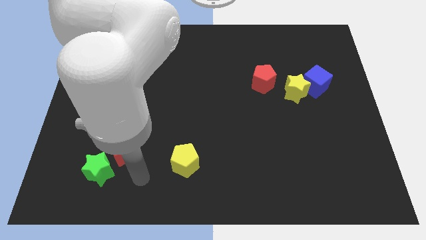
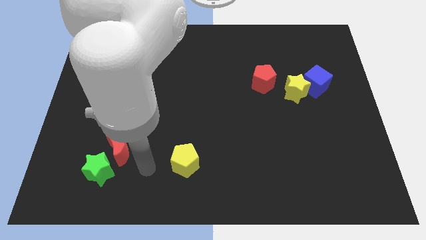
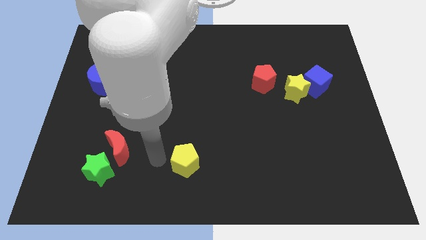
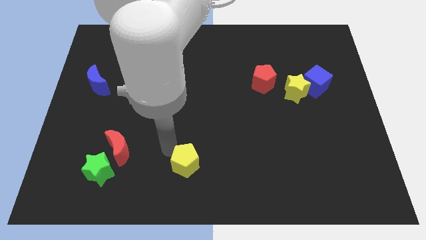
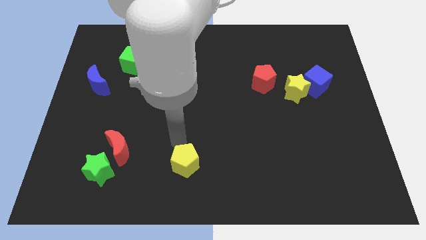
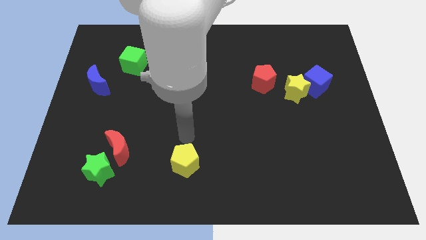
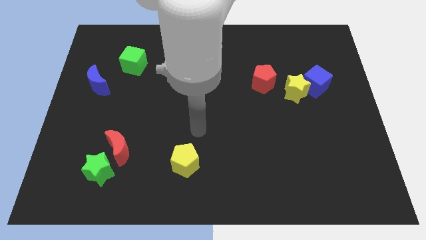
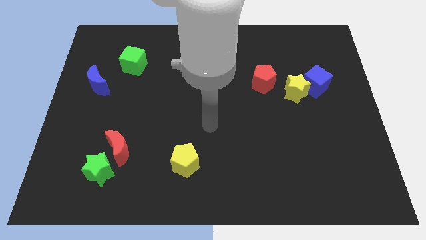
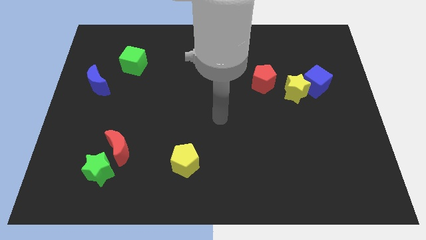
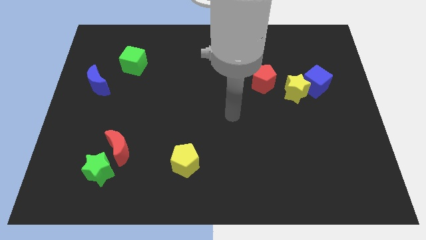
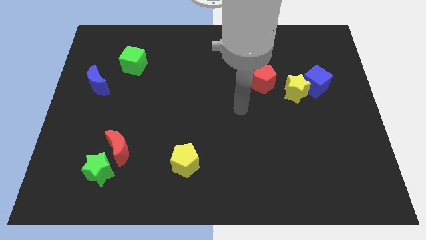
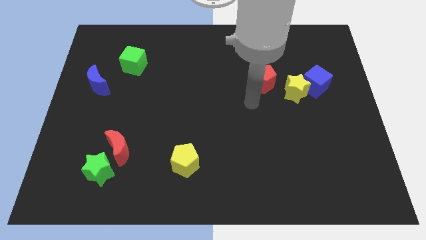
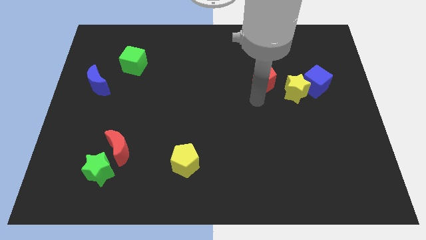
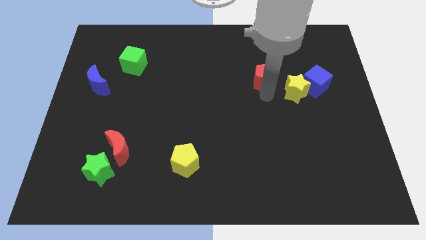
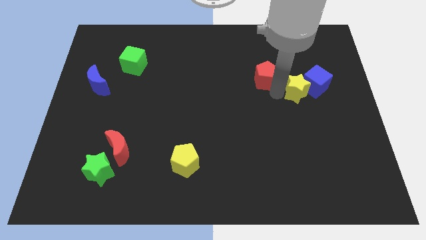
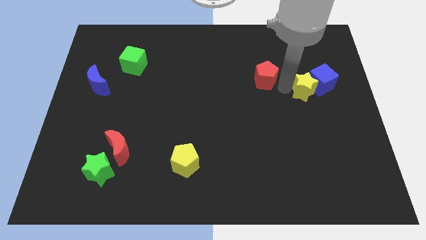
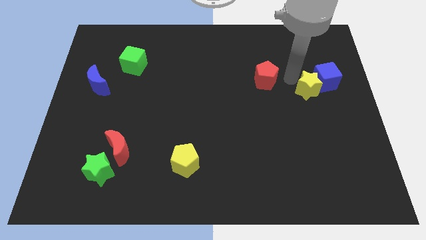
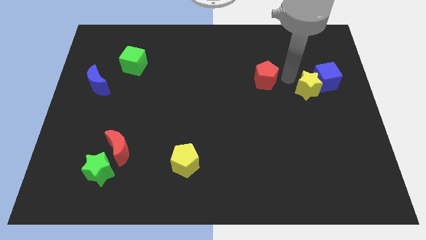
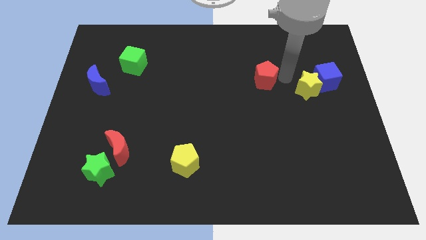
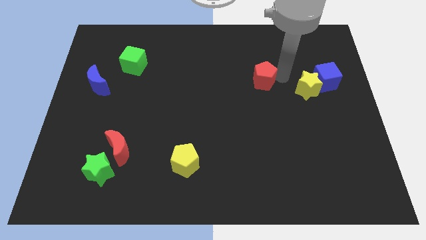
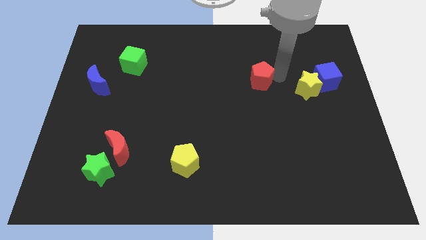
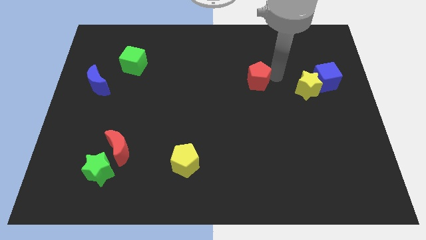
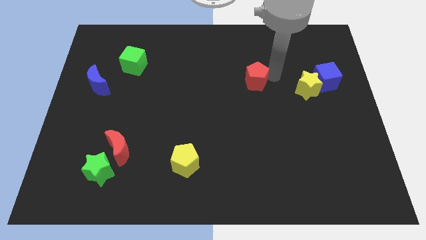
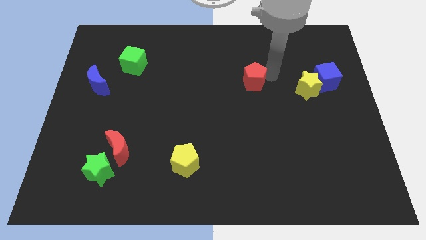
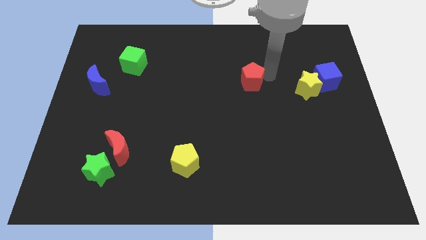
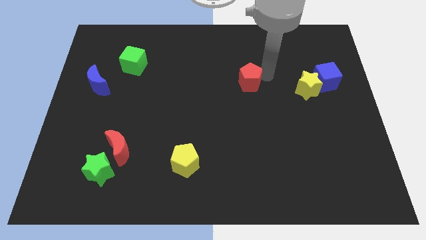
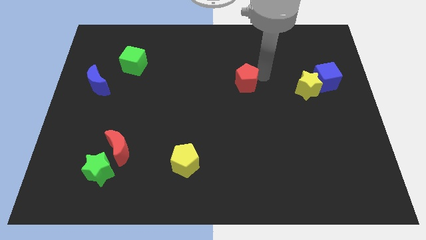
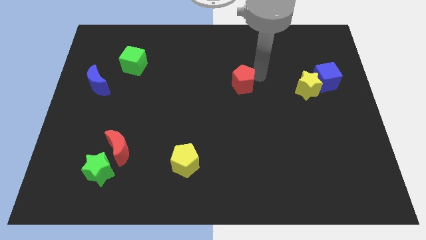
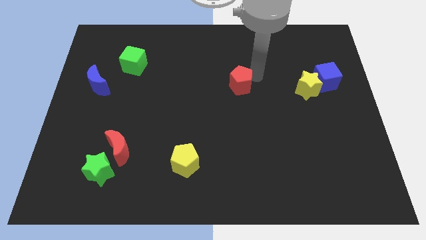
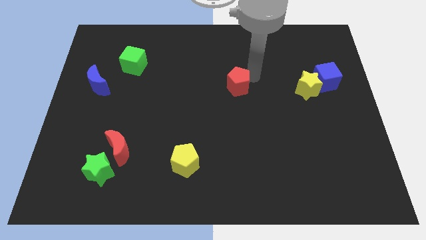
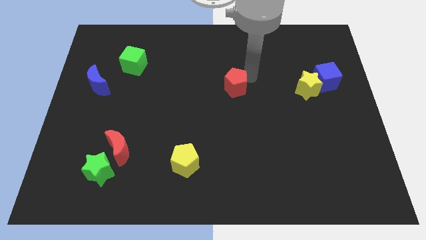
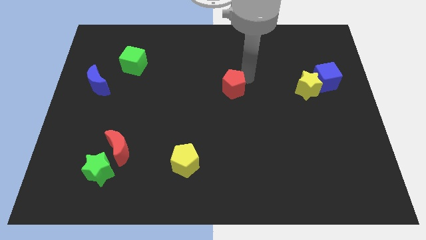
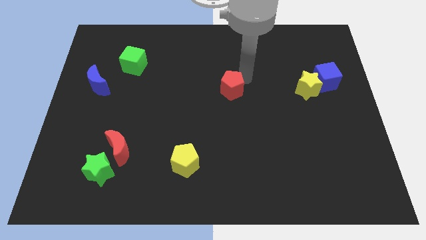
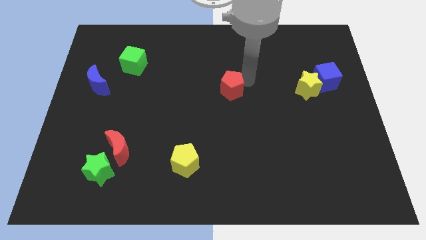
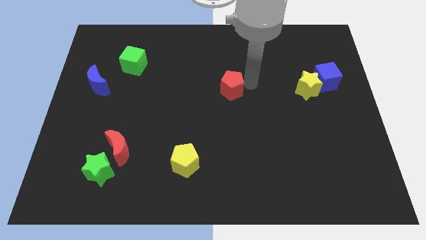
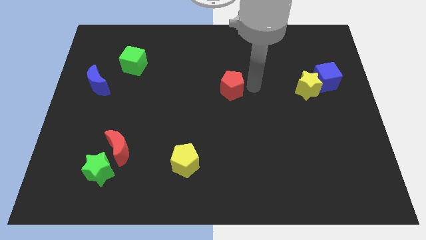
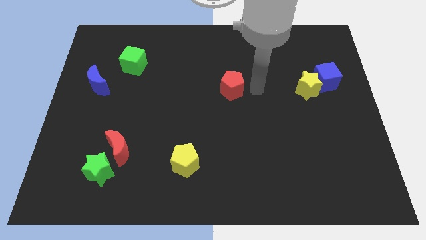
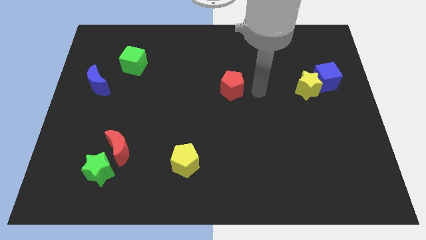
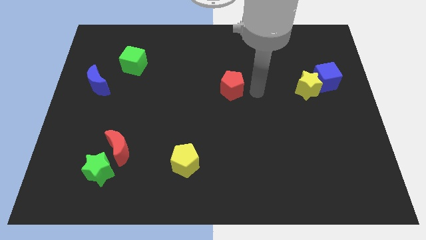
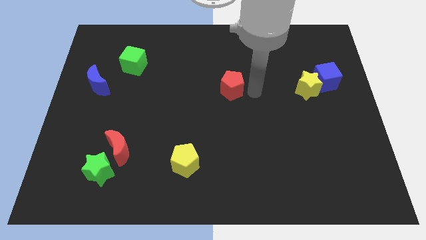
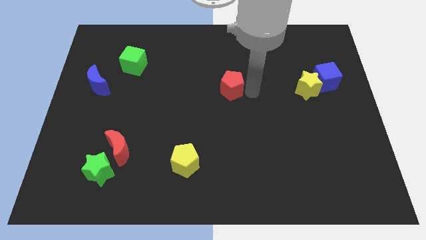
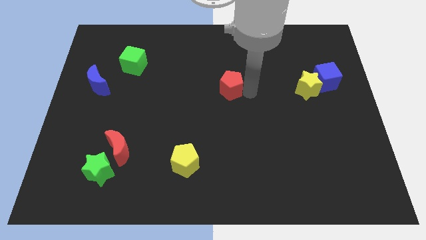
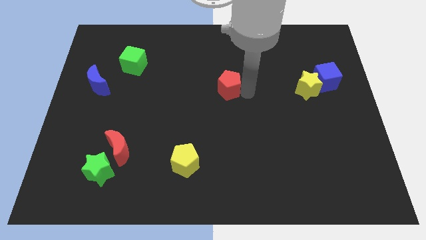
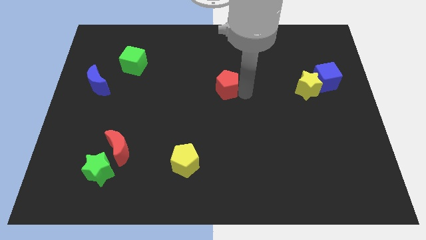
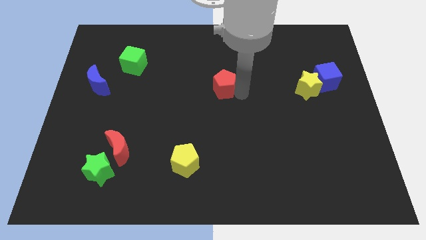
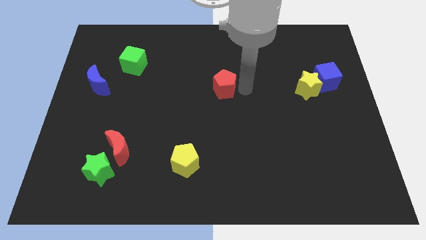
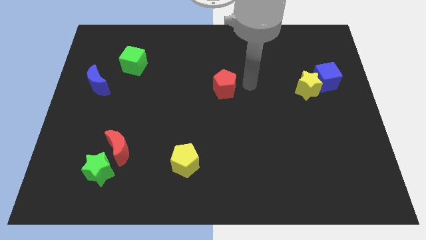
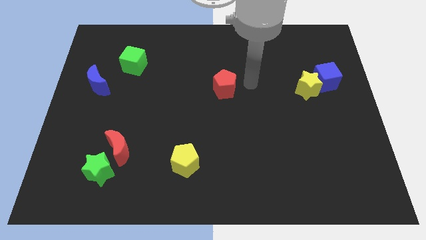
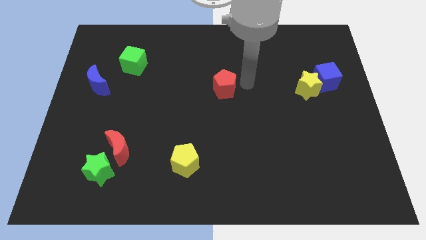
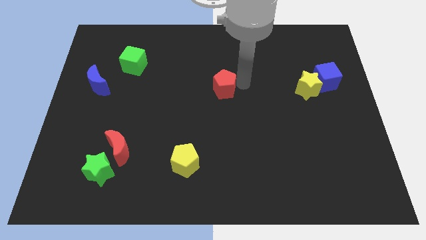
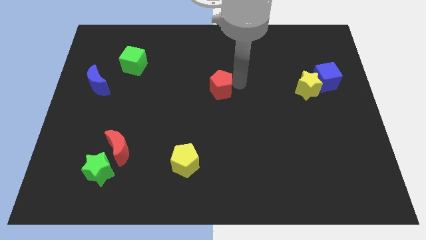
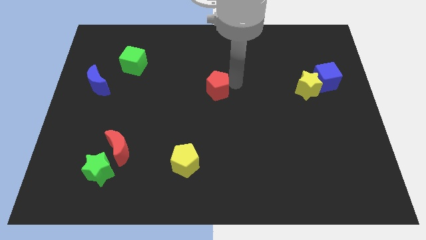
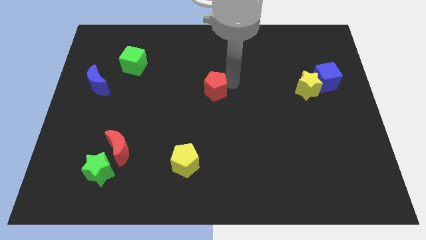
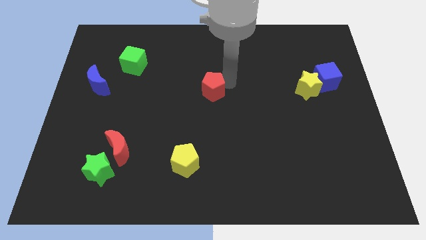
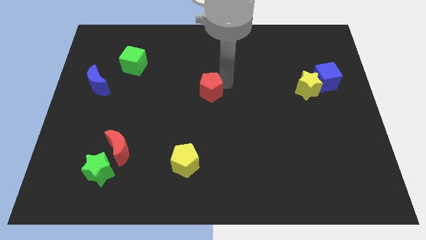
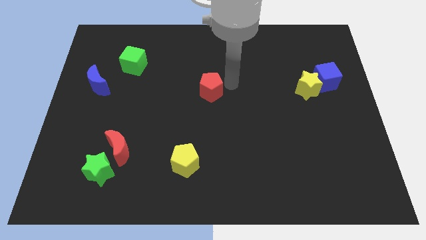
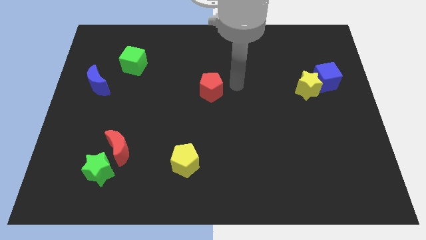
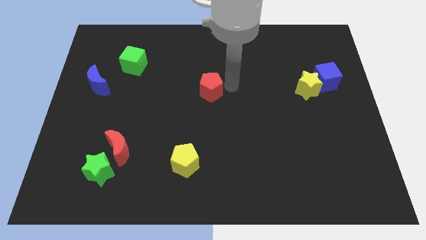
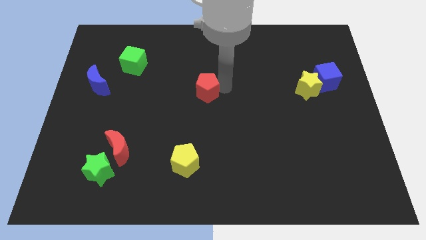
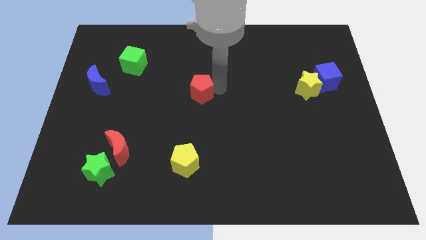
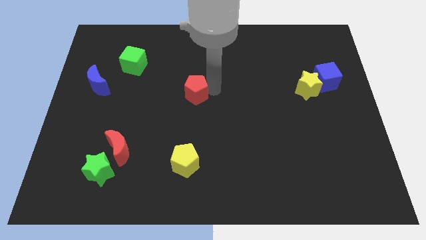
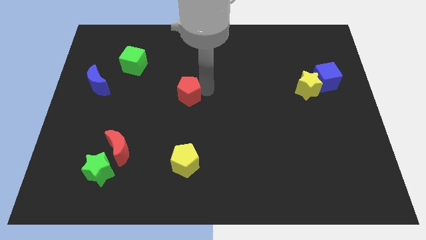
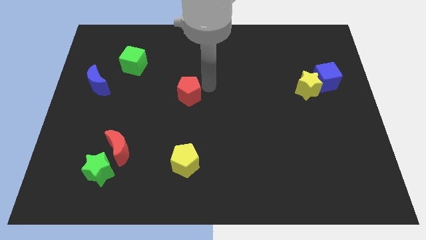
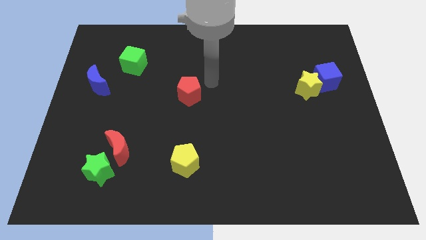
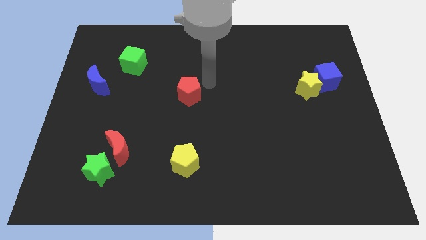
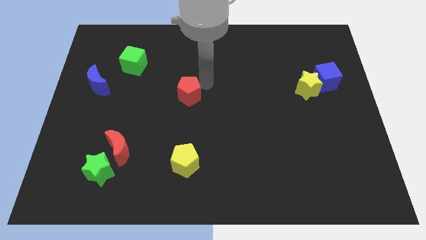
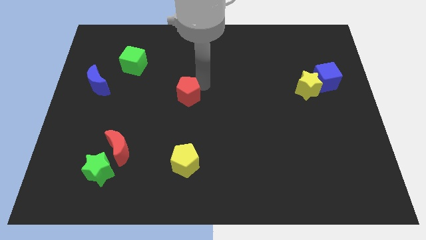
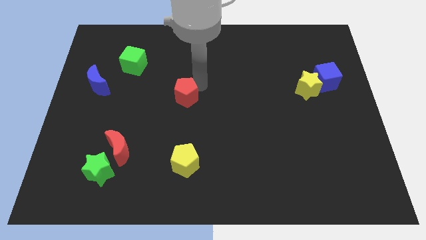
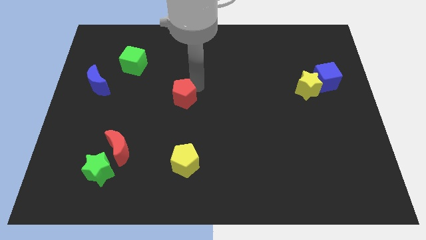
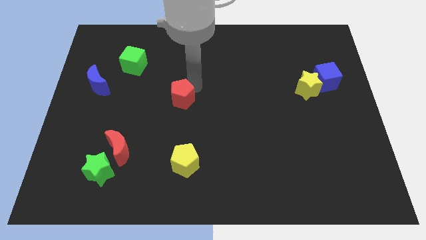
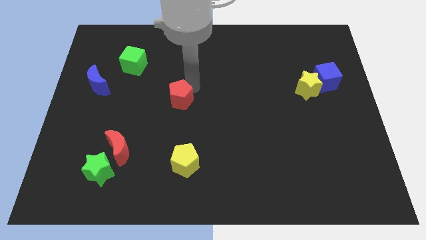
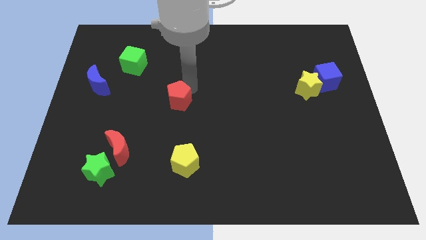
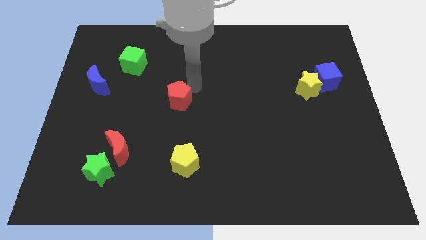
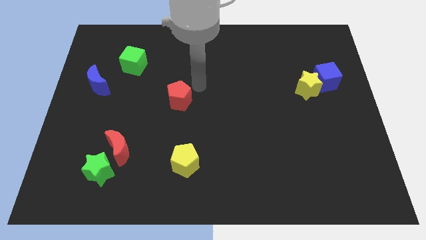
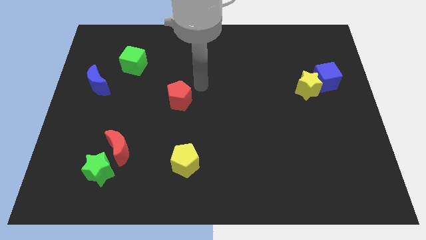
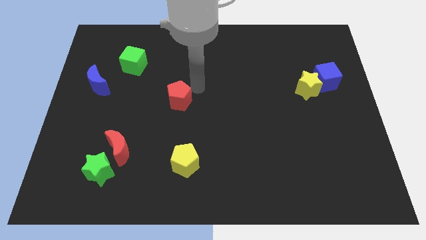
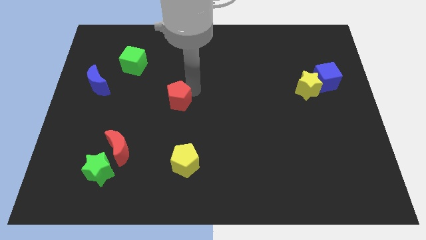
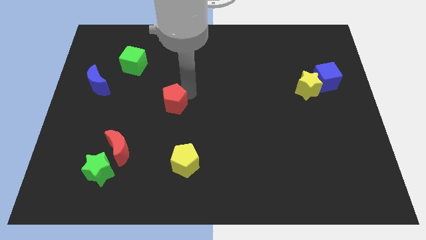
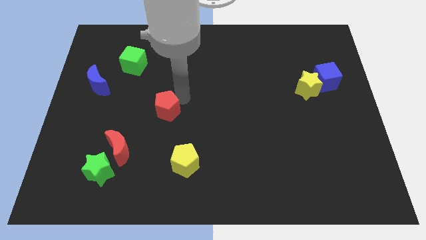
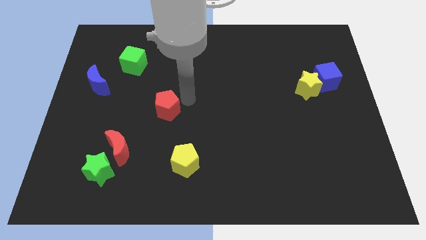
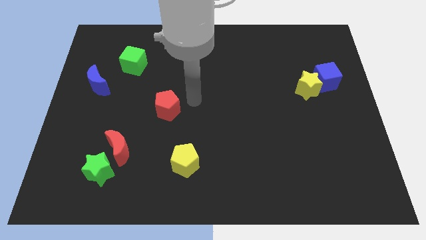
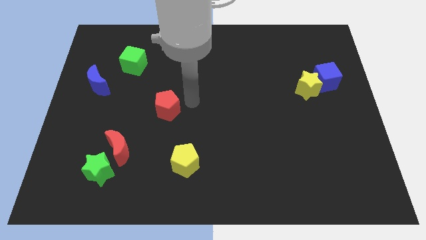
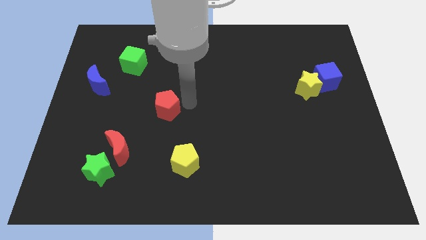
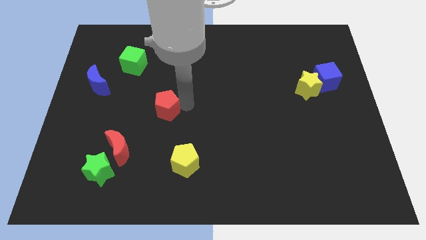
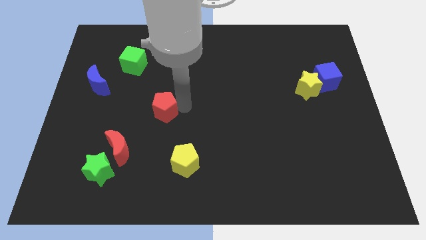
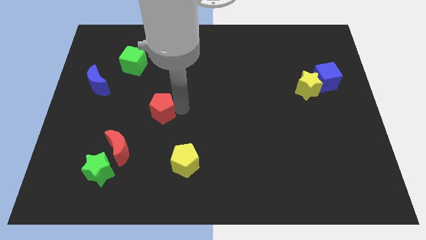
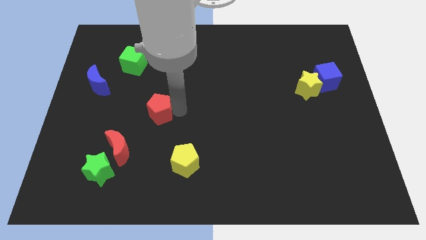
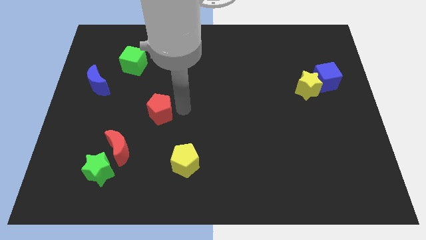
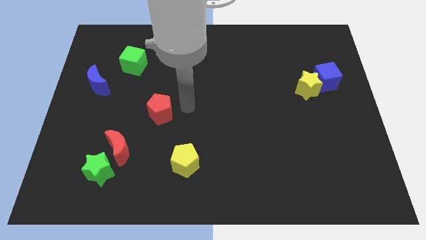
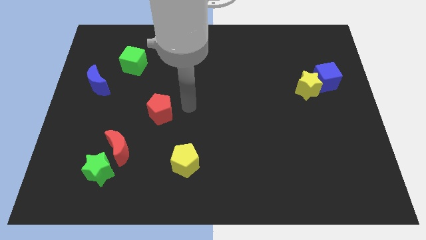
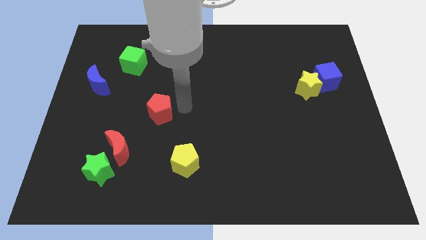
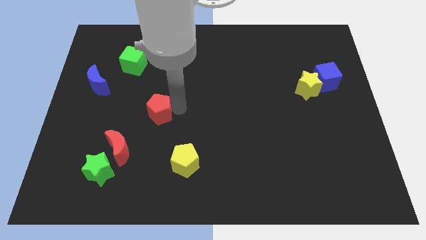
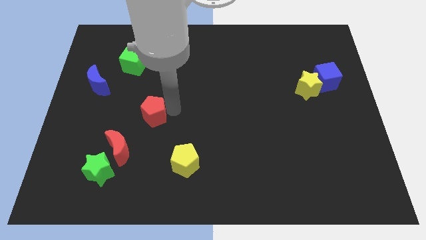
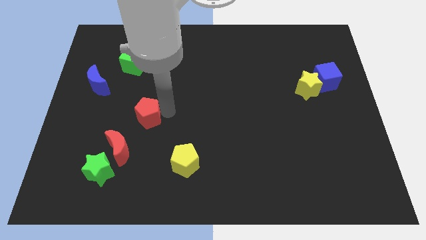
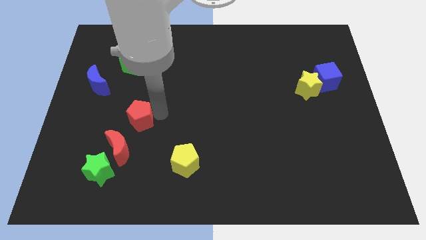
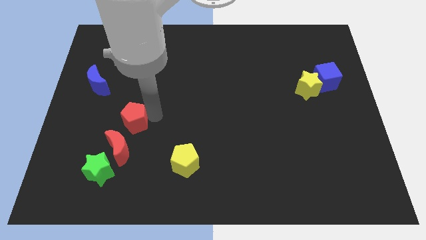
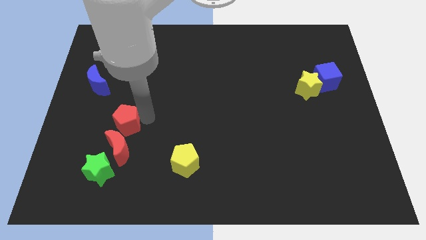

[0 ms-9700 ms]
put the red pentagon to the top side of the green star
